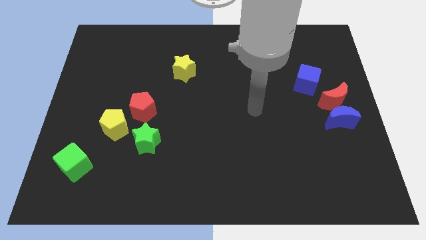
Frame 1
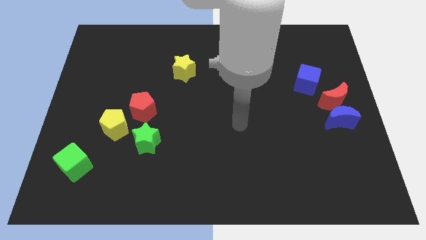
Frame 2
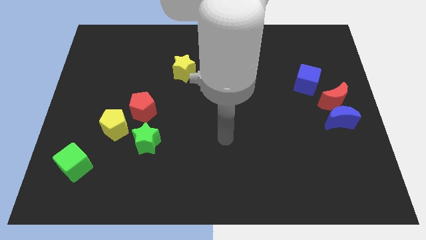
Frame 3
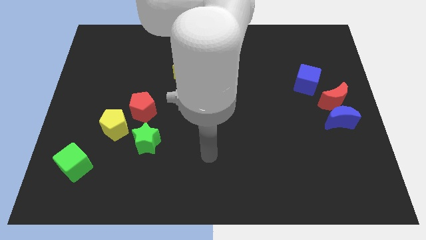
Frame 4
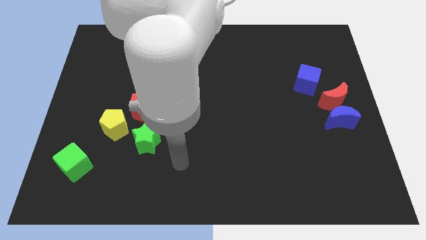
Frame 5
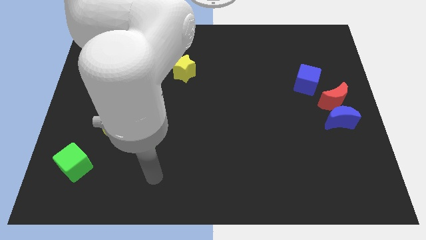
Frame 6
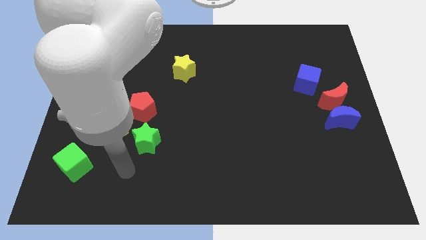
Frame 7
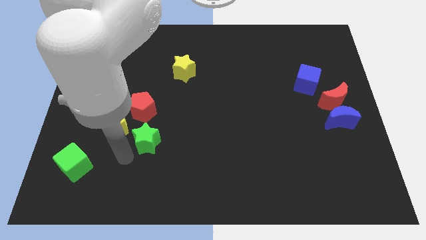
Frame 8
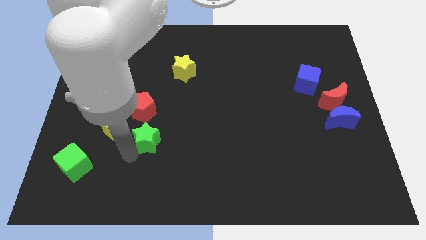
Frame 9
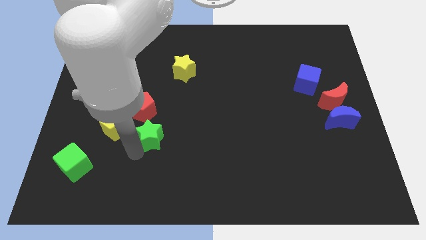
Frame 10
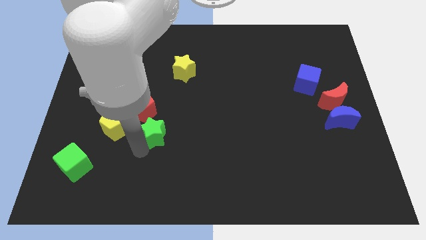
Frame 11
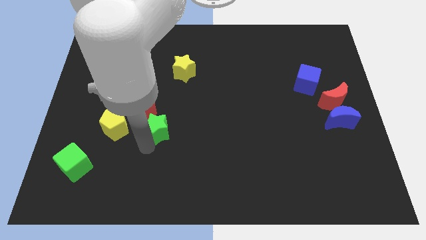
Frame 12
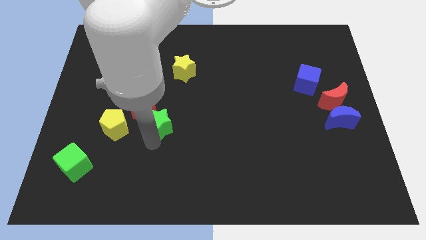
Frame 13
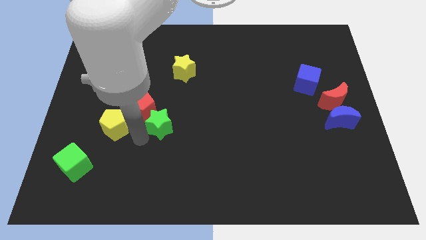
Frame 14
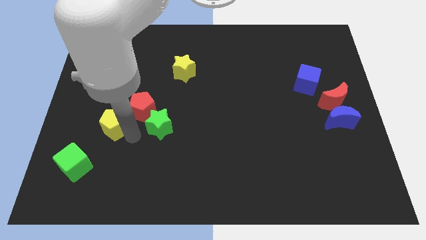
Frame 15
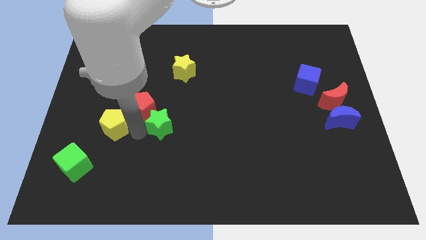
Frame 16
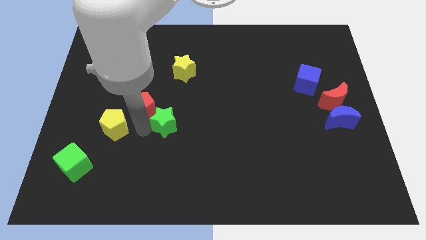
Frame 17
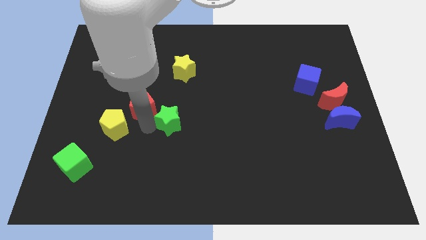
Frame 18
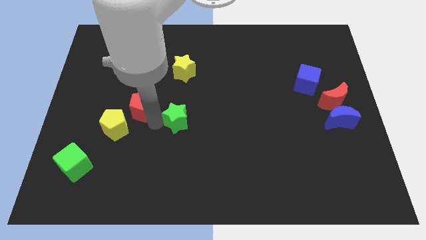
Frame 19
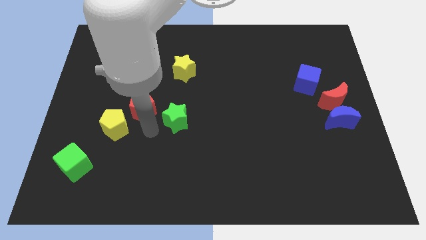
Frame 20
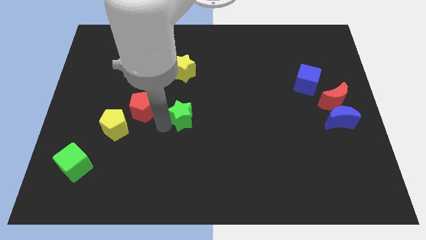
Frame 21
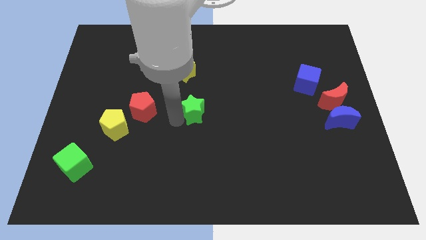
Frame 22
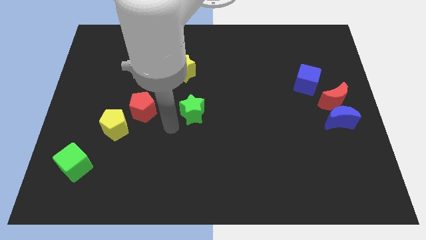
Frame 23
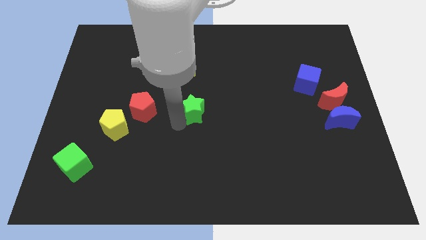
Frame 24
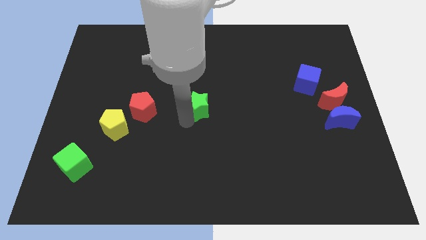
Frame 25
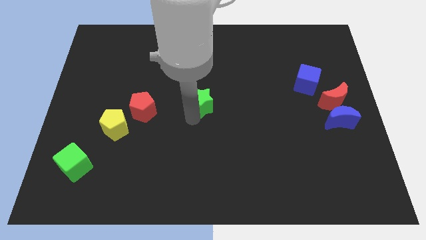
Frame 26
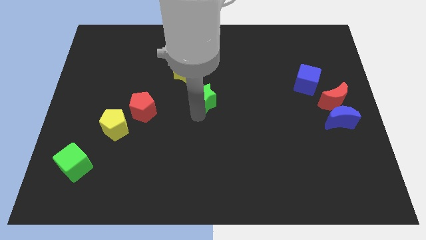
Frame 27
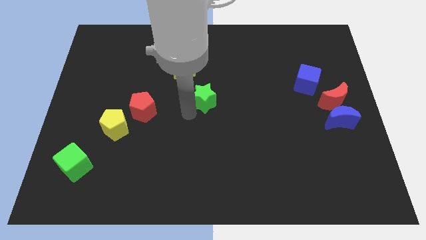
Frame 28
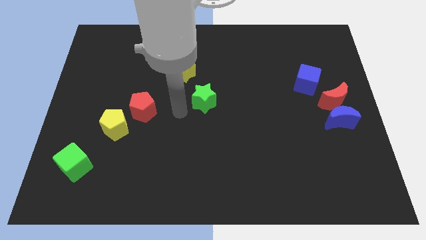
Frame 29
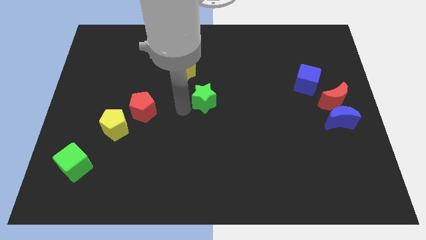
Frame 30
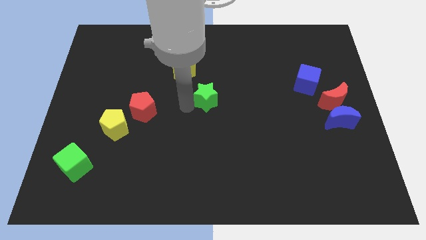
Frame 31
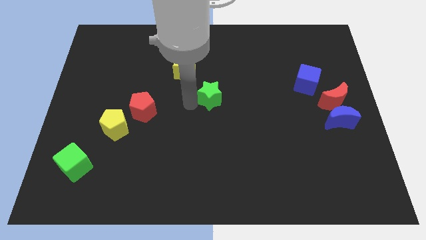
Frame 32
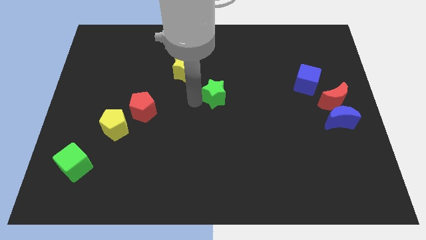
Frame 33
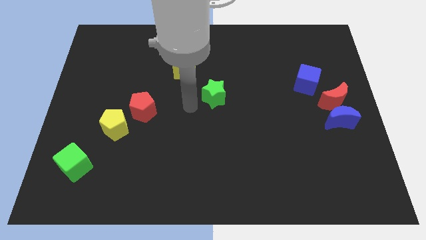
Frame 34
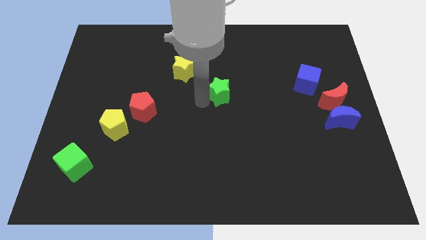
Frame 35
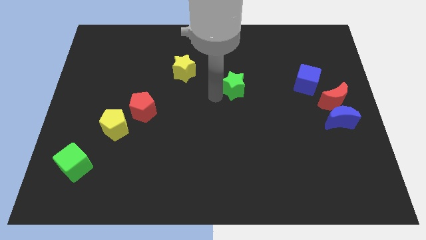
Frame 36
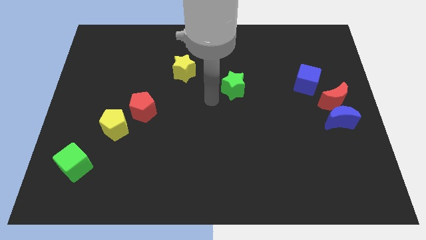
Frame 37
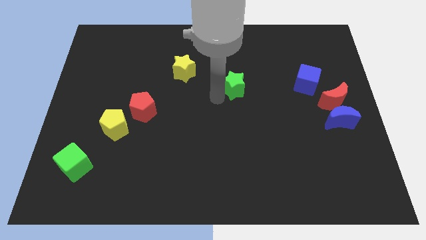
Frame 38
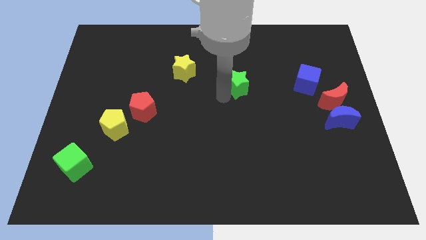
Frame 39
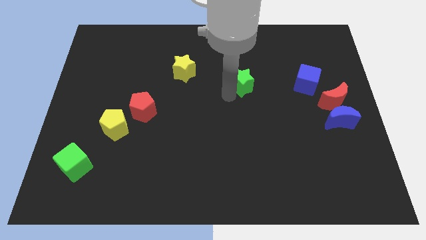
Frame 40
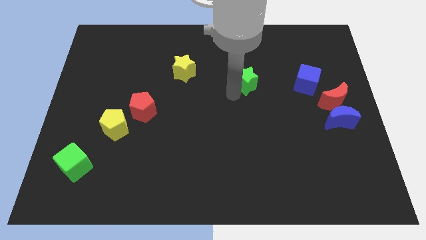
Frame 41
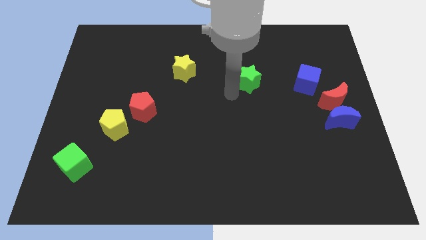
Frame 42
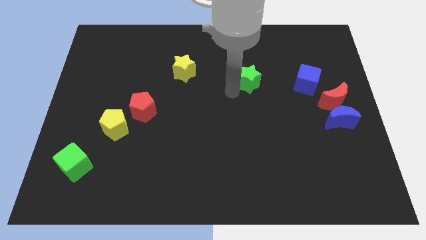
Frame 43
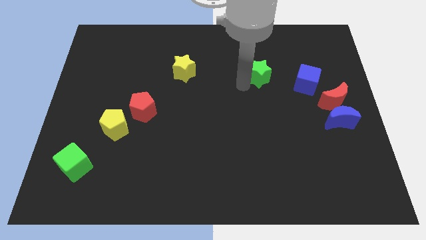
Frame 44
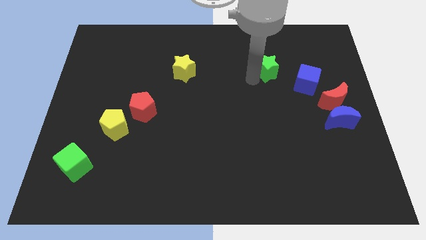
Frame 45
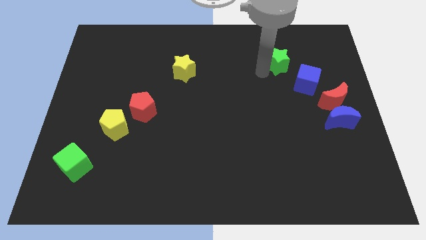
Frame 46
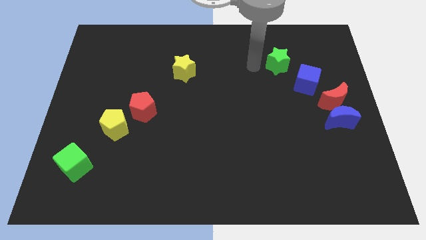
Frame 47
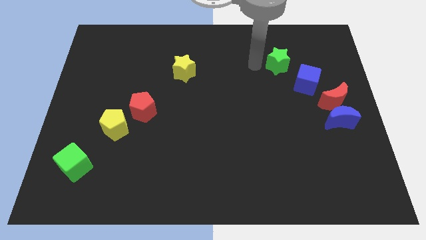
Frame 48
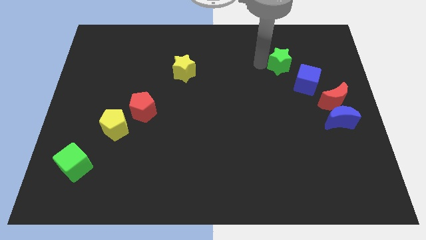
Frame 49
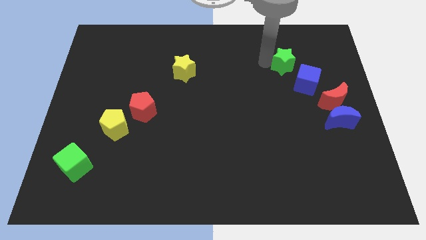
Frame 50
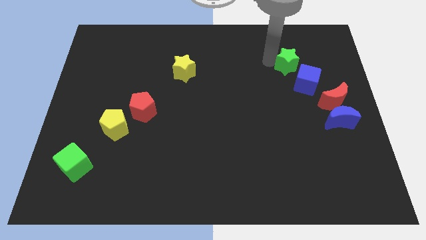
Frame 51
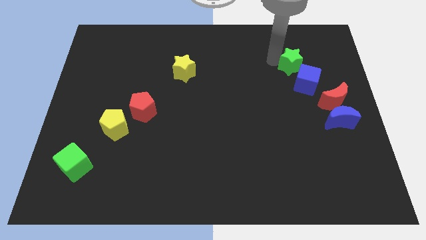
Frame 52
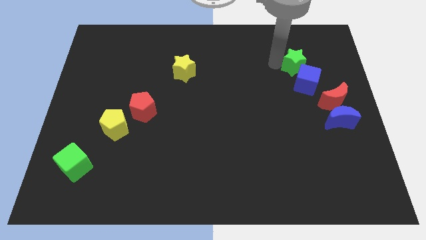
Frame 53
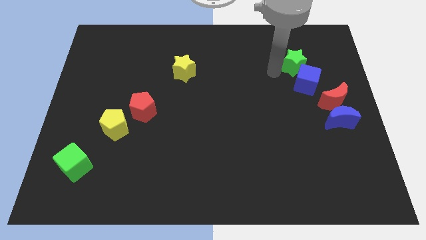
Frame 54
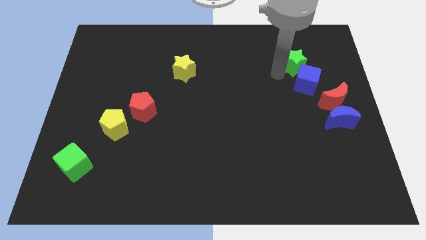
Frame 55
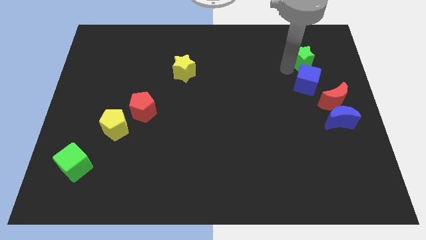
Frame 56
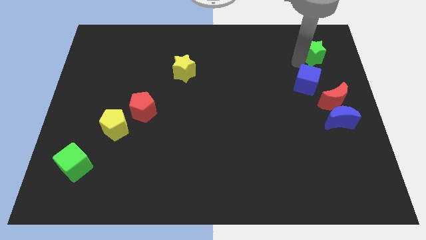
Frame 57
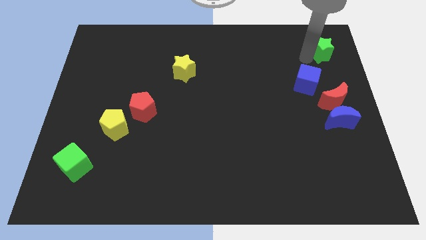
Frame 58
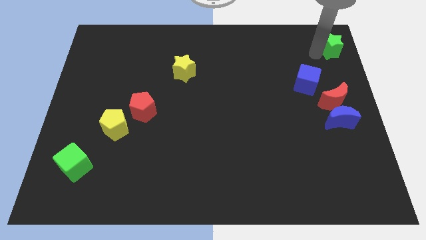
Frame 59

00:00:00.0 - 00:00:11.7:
put the green star to the top right corner

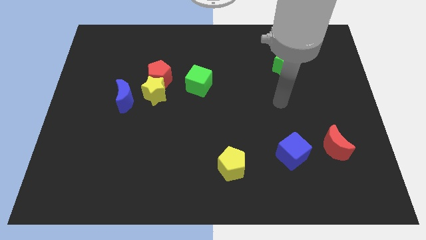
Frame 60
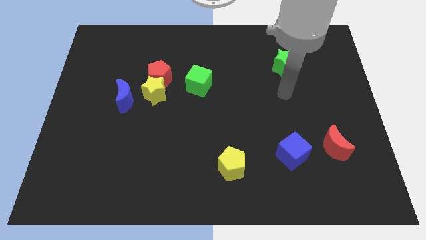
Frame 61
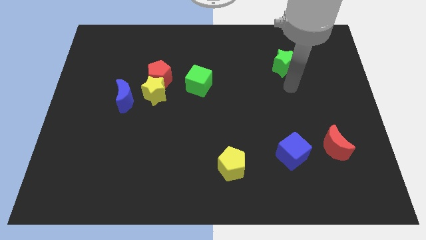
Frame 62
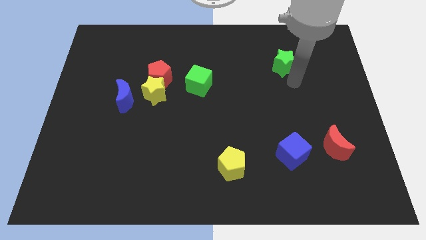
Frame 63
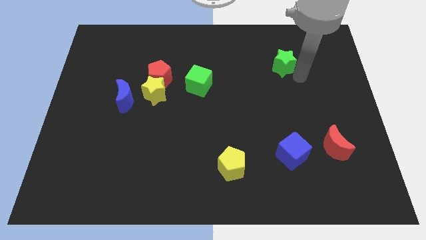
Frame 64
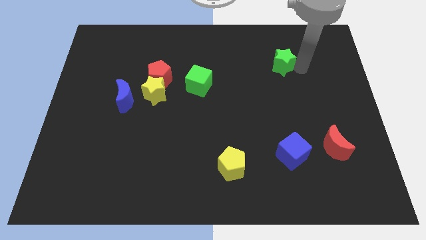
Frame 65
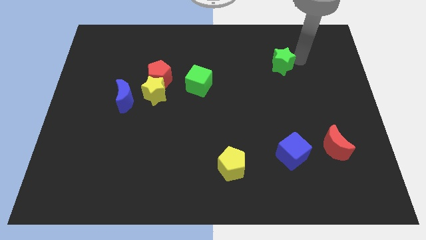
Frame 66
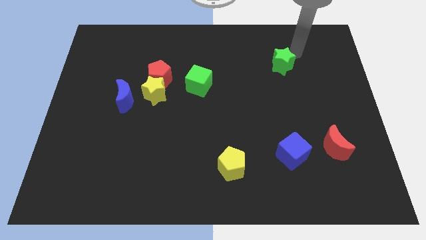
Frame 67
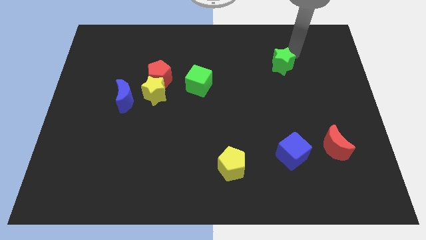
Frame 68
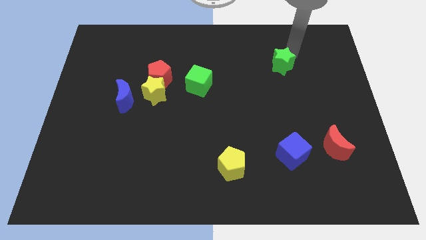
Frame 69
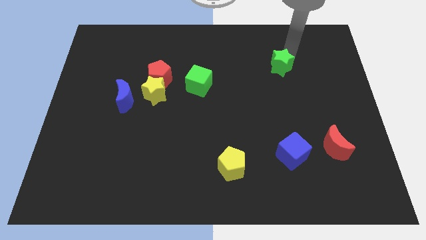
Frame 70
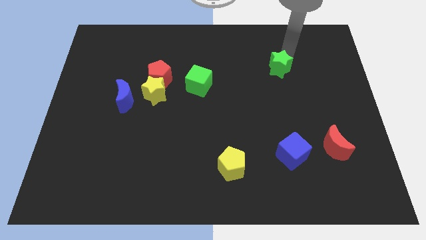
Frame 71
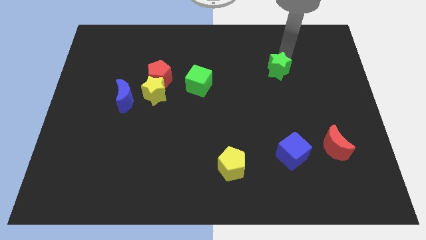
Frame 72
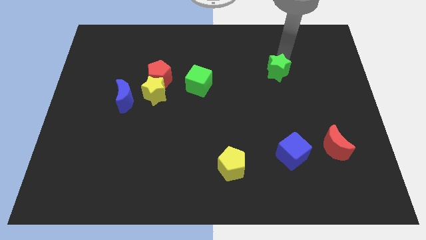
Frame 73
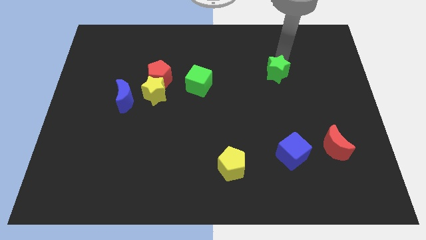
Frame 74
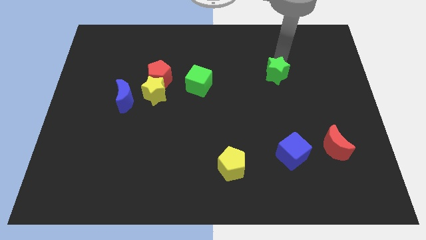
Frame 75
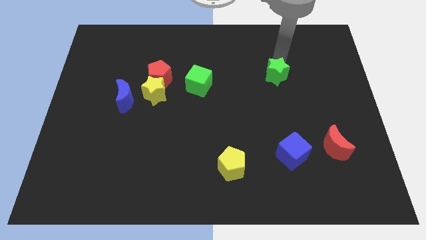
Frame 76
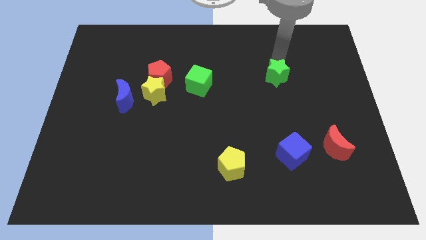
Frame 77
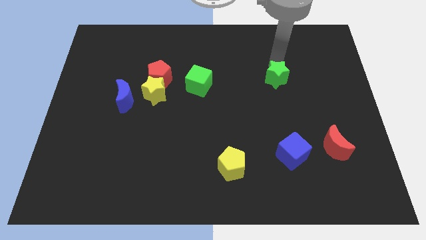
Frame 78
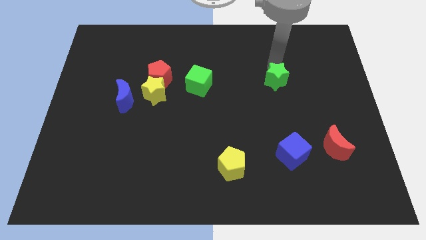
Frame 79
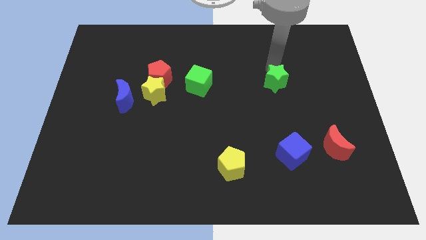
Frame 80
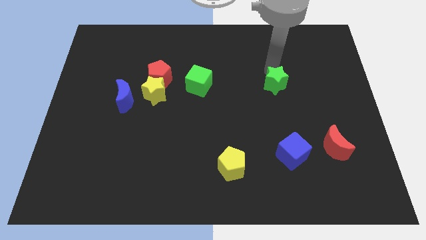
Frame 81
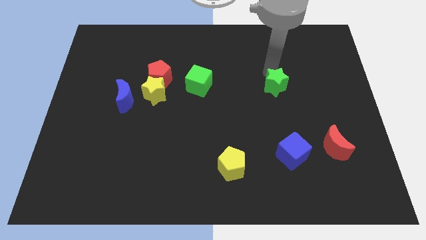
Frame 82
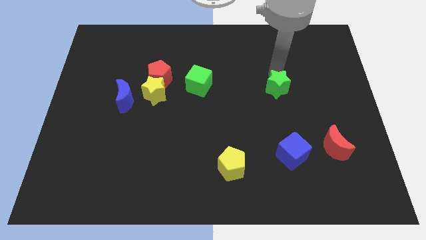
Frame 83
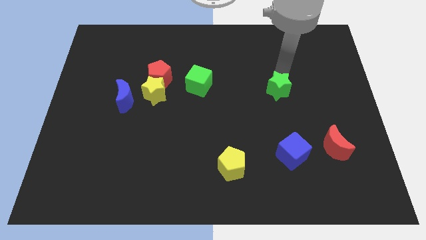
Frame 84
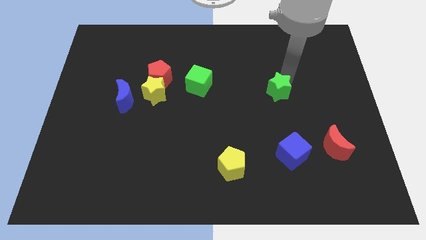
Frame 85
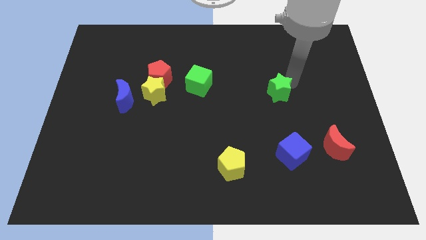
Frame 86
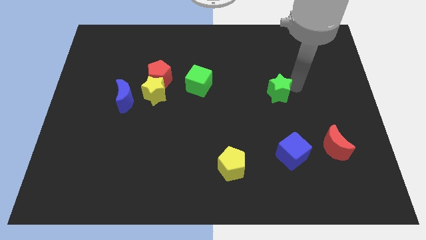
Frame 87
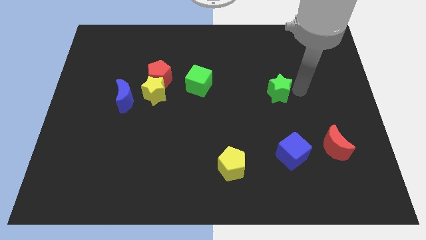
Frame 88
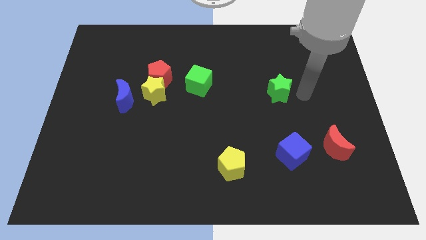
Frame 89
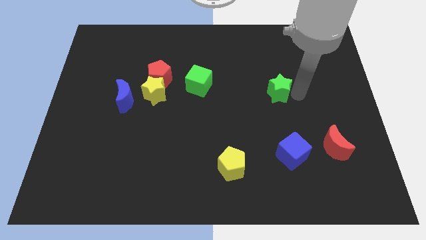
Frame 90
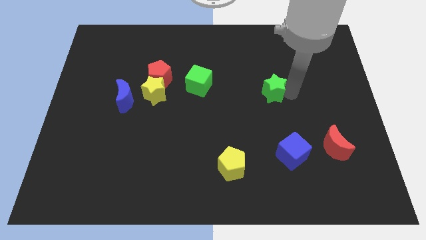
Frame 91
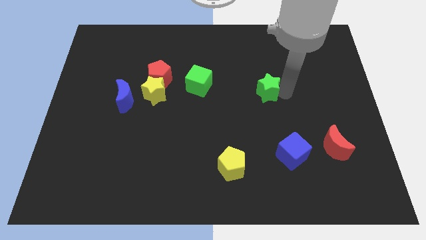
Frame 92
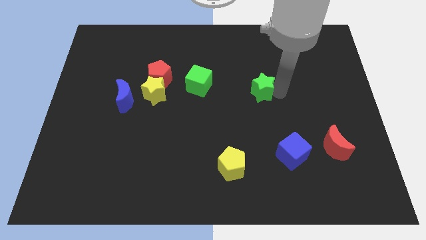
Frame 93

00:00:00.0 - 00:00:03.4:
push the green star to the center
